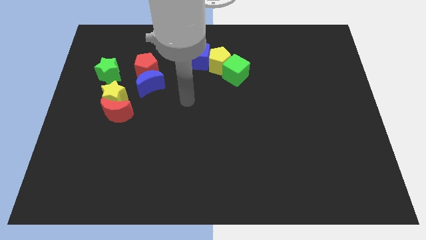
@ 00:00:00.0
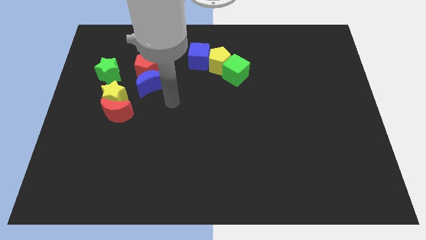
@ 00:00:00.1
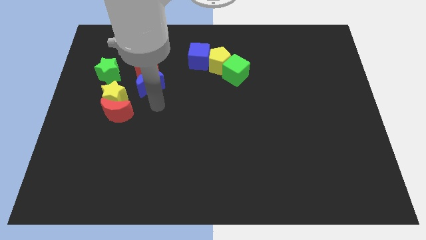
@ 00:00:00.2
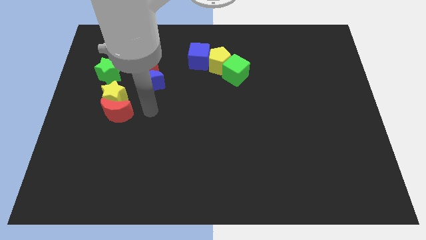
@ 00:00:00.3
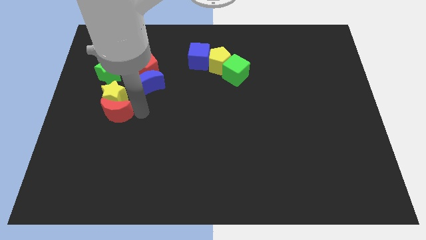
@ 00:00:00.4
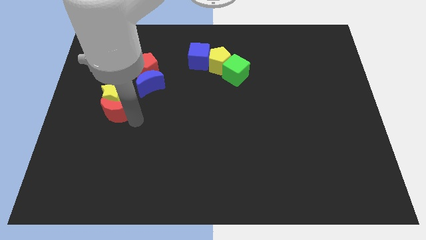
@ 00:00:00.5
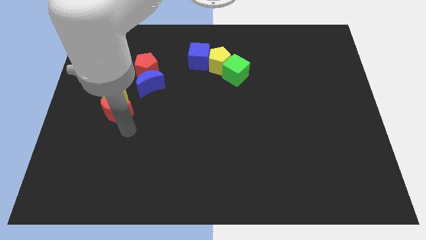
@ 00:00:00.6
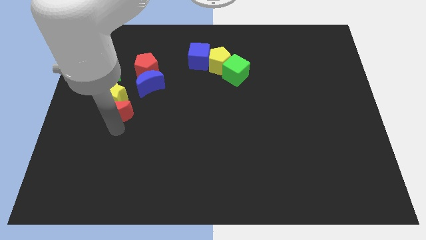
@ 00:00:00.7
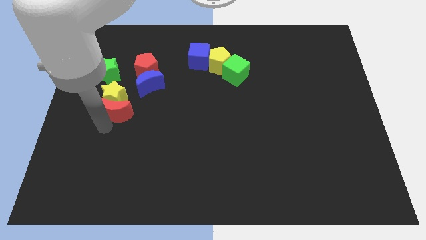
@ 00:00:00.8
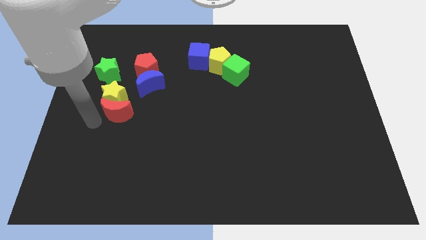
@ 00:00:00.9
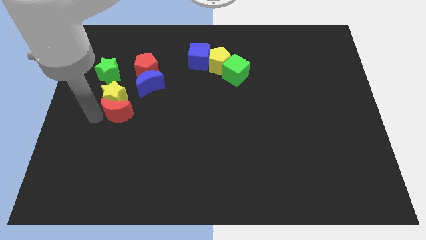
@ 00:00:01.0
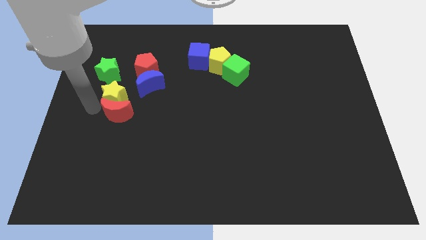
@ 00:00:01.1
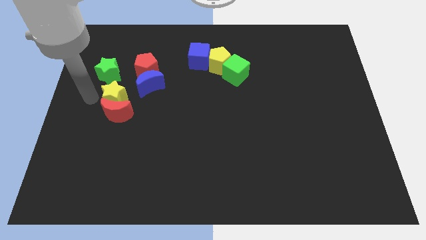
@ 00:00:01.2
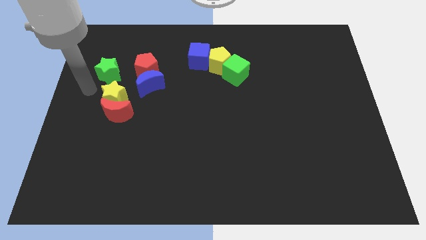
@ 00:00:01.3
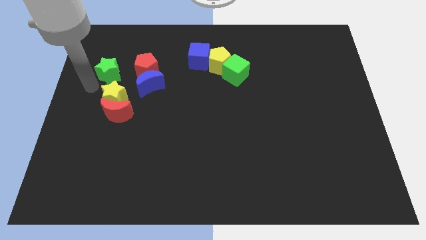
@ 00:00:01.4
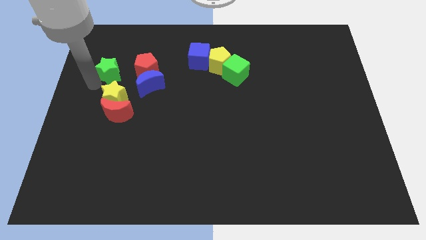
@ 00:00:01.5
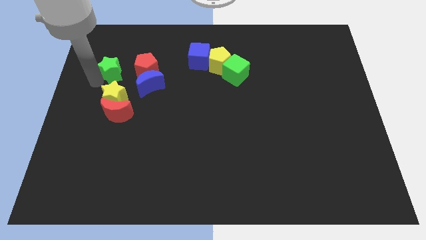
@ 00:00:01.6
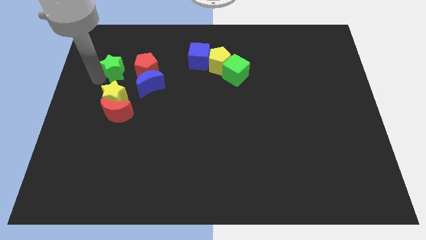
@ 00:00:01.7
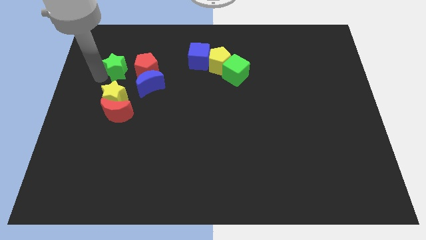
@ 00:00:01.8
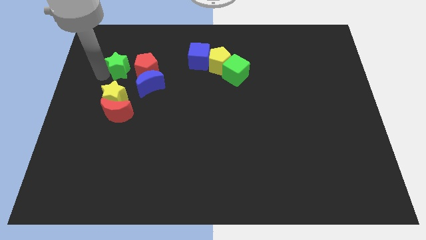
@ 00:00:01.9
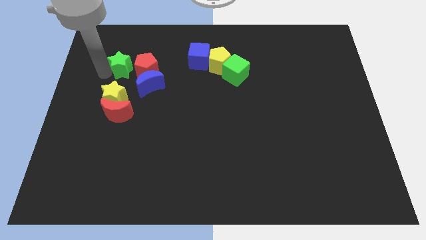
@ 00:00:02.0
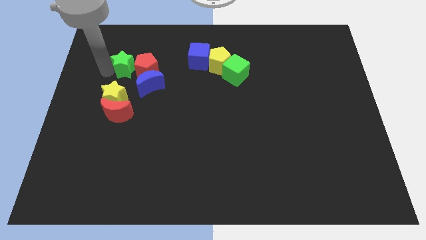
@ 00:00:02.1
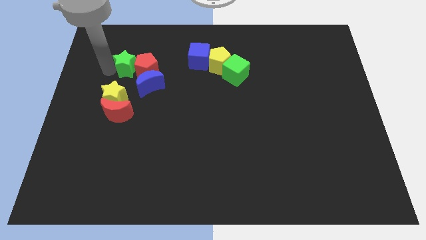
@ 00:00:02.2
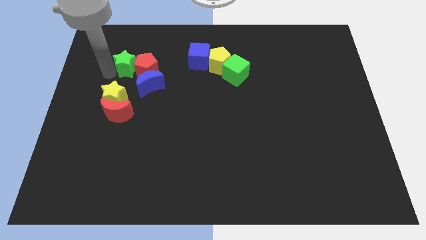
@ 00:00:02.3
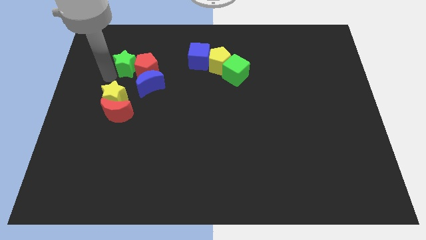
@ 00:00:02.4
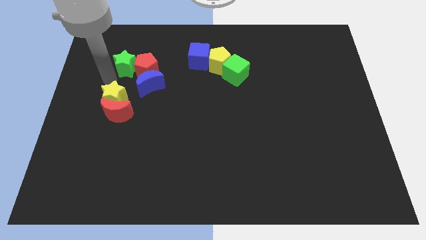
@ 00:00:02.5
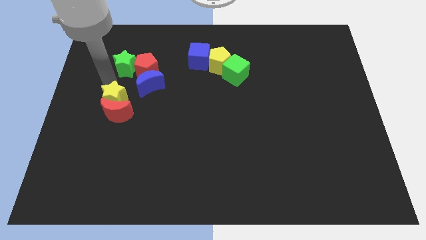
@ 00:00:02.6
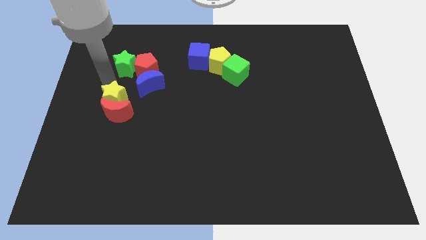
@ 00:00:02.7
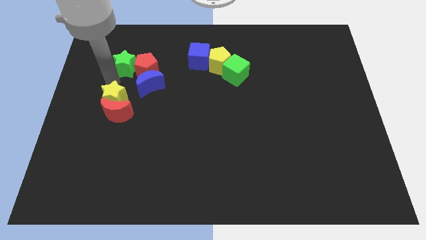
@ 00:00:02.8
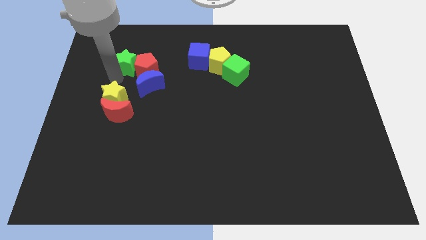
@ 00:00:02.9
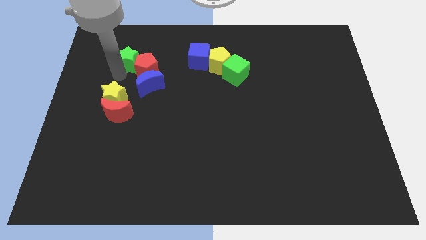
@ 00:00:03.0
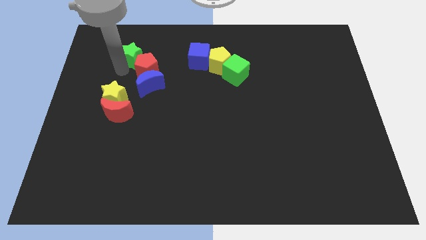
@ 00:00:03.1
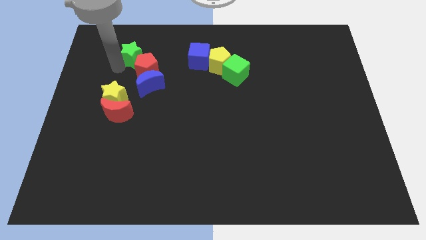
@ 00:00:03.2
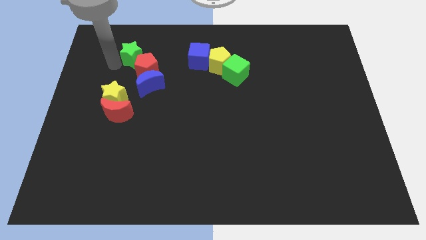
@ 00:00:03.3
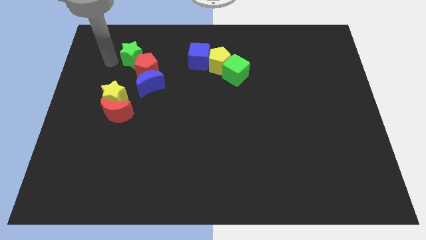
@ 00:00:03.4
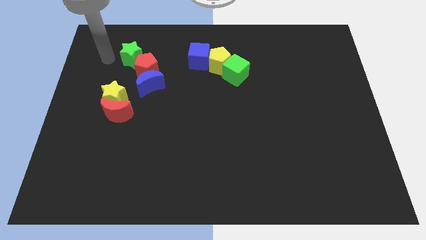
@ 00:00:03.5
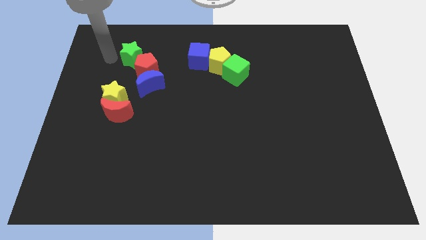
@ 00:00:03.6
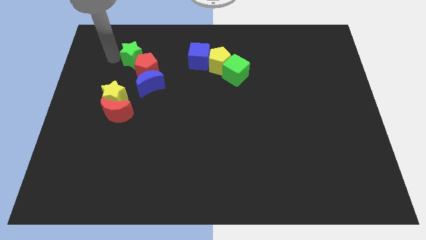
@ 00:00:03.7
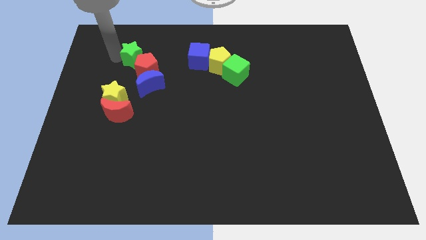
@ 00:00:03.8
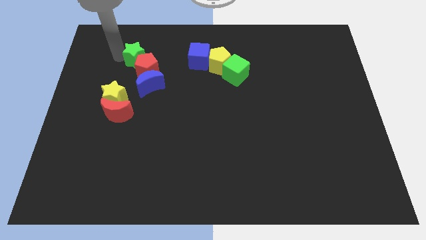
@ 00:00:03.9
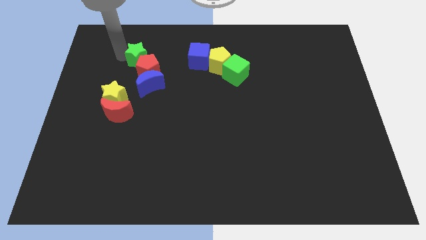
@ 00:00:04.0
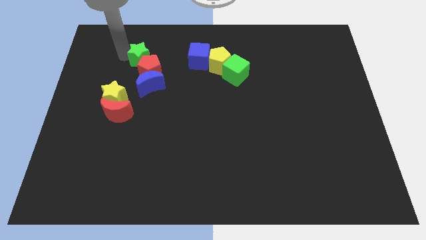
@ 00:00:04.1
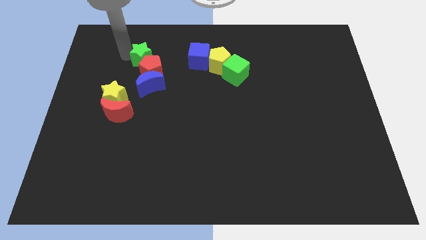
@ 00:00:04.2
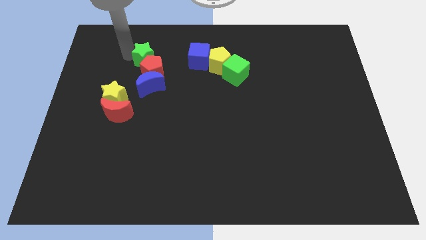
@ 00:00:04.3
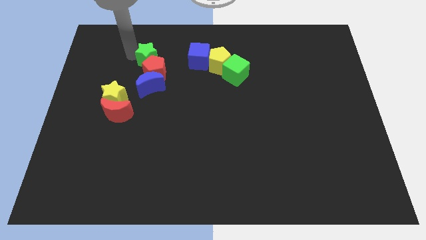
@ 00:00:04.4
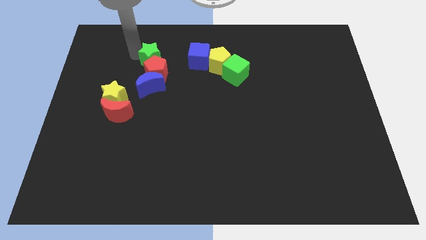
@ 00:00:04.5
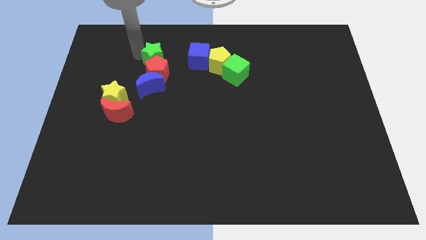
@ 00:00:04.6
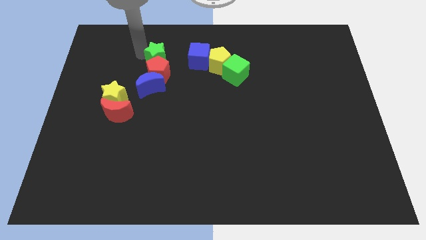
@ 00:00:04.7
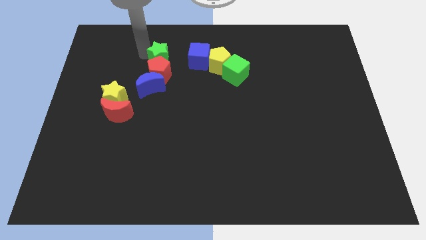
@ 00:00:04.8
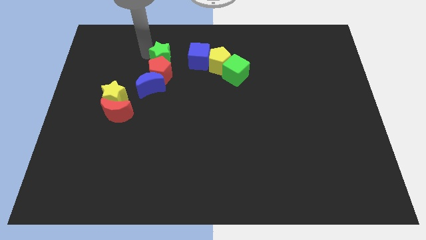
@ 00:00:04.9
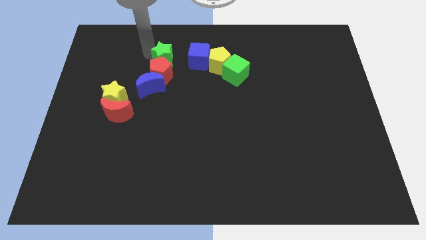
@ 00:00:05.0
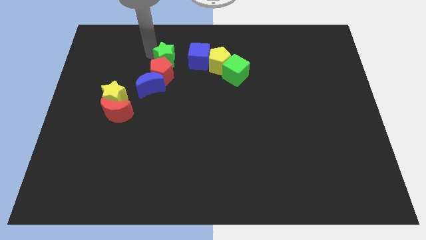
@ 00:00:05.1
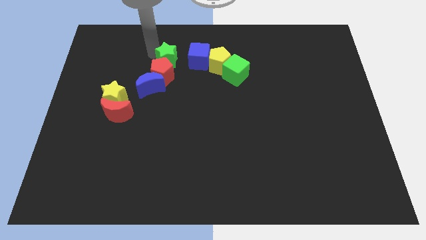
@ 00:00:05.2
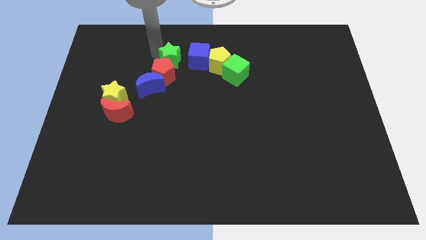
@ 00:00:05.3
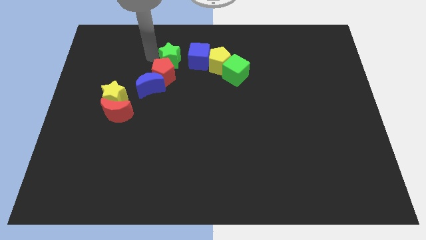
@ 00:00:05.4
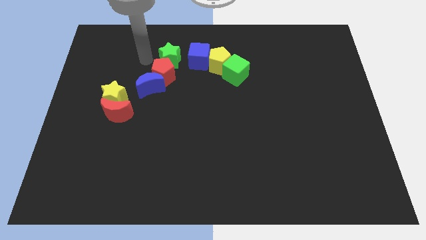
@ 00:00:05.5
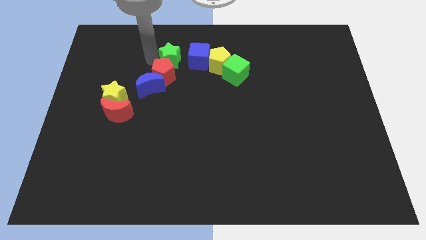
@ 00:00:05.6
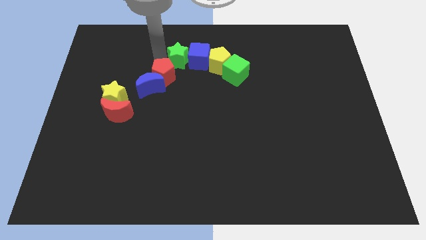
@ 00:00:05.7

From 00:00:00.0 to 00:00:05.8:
push the green star towards the blue cube

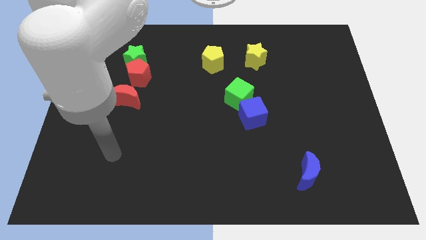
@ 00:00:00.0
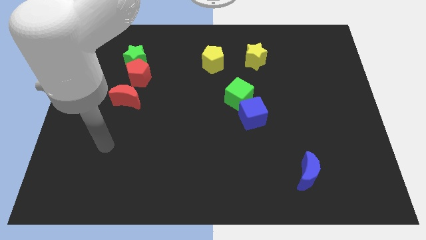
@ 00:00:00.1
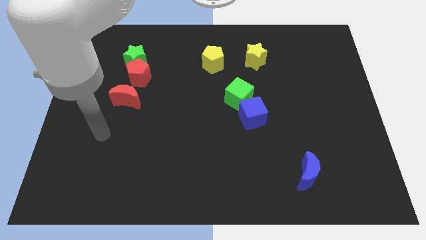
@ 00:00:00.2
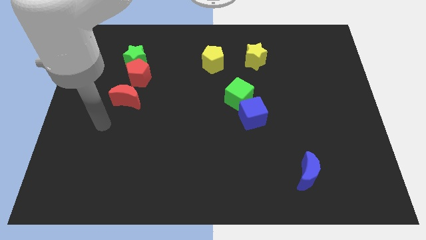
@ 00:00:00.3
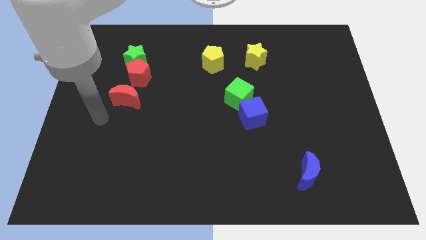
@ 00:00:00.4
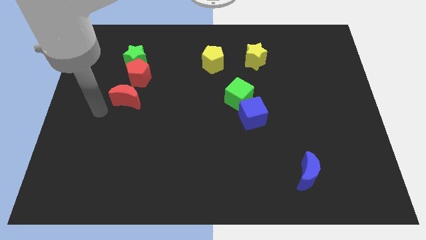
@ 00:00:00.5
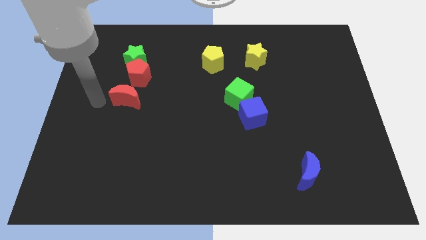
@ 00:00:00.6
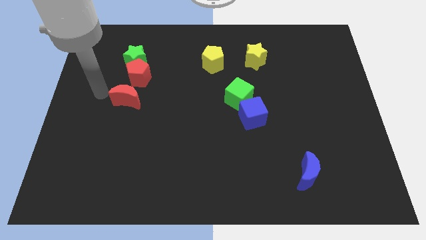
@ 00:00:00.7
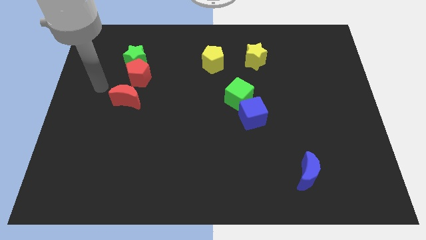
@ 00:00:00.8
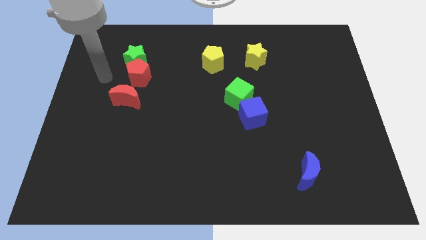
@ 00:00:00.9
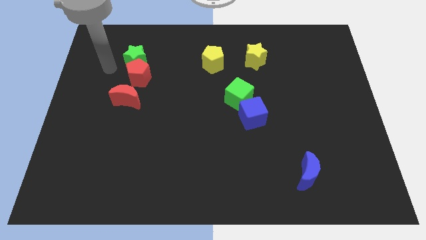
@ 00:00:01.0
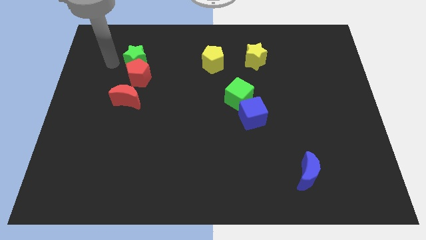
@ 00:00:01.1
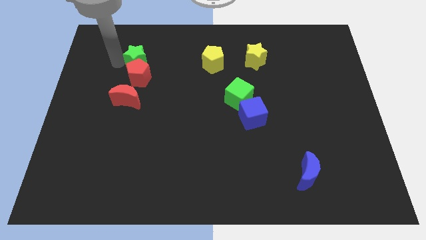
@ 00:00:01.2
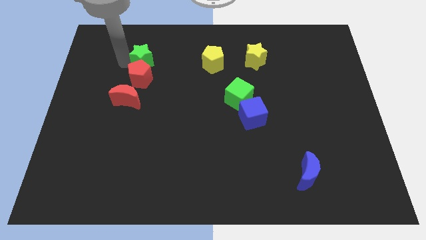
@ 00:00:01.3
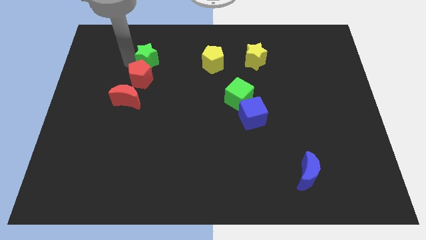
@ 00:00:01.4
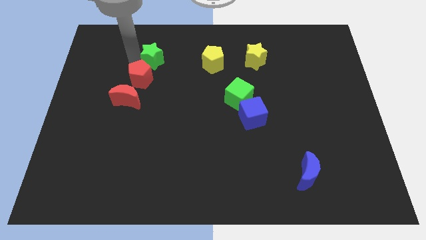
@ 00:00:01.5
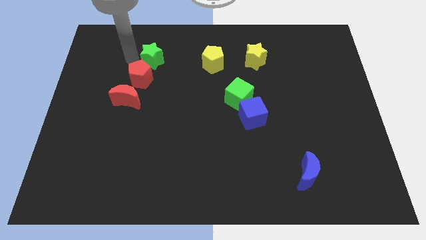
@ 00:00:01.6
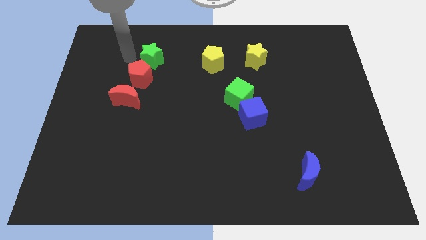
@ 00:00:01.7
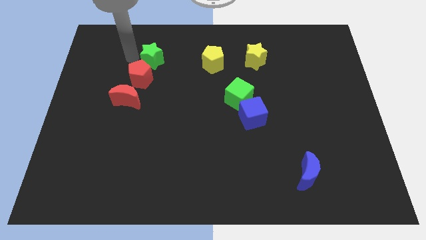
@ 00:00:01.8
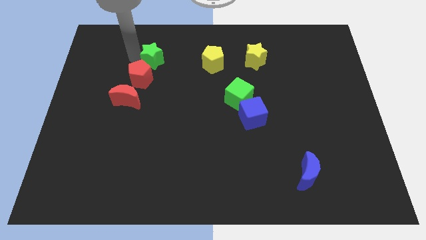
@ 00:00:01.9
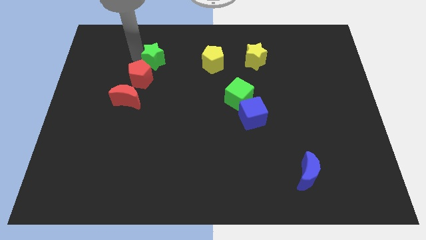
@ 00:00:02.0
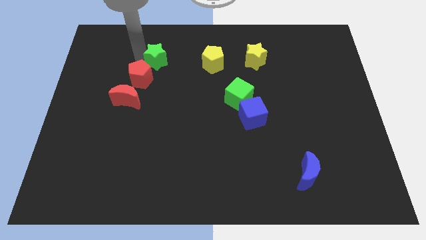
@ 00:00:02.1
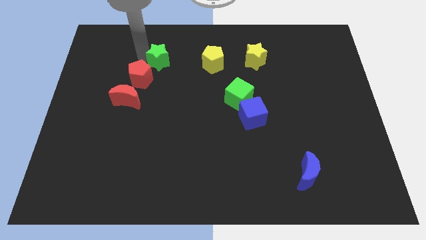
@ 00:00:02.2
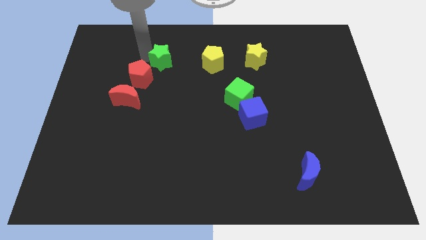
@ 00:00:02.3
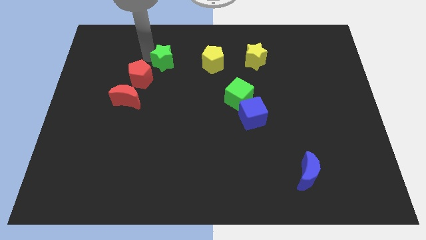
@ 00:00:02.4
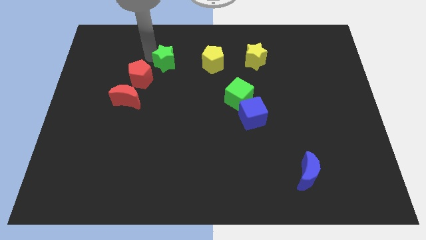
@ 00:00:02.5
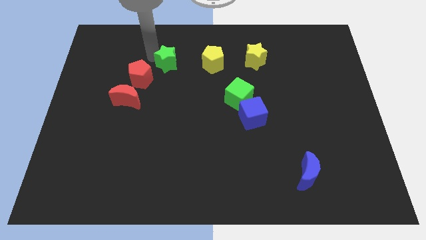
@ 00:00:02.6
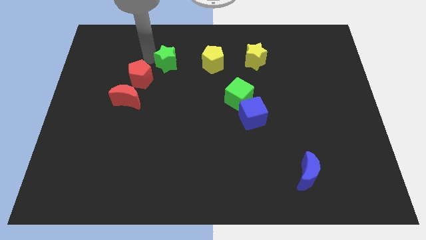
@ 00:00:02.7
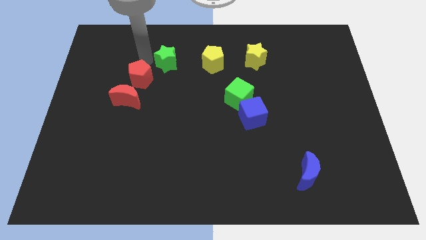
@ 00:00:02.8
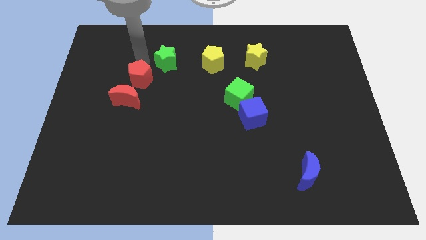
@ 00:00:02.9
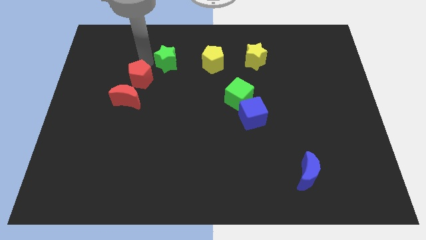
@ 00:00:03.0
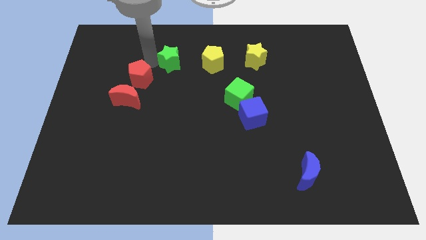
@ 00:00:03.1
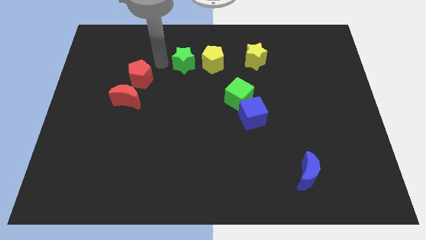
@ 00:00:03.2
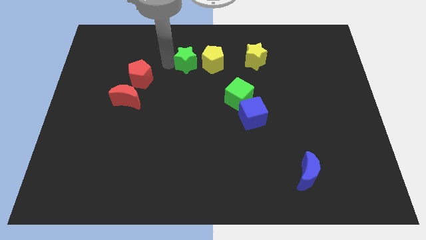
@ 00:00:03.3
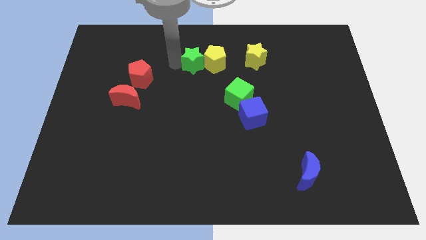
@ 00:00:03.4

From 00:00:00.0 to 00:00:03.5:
slide the green star next to the yellow pentagon
